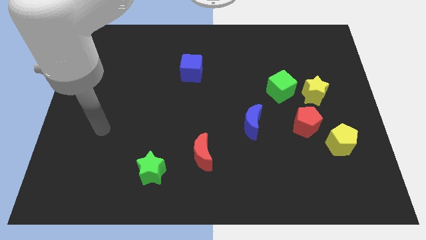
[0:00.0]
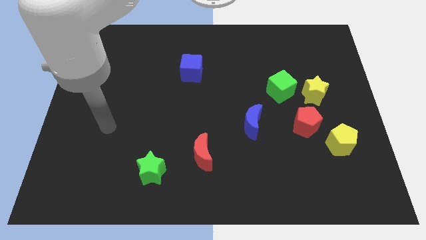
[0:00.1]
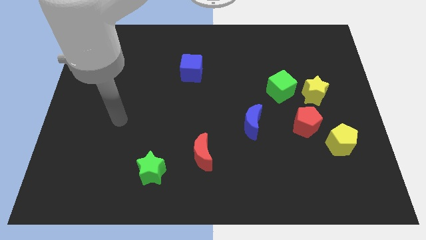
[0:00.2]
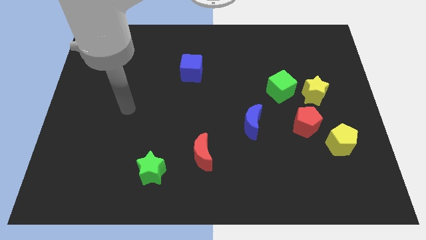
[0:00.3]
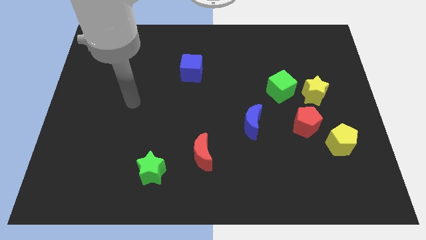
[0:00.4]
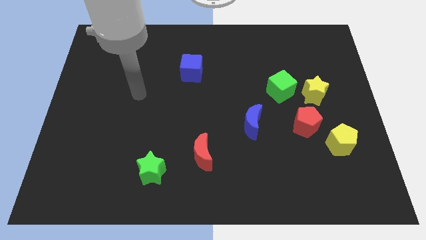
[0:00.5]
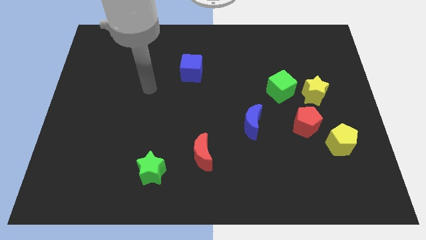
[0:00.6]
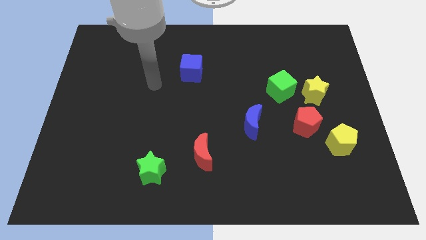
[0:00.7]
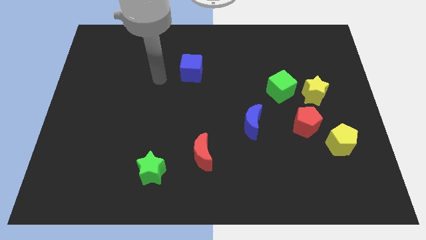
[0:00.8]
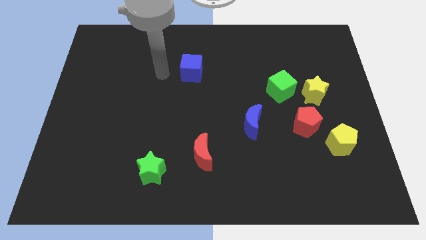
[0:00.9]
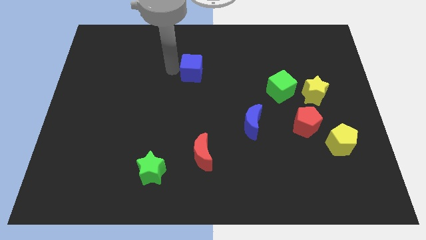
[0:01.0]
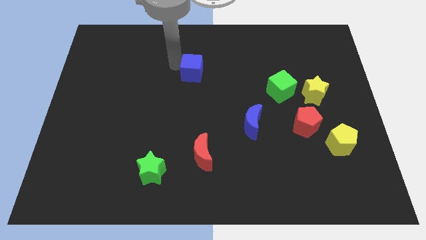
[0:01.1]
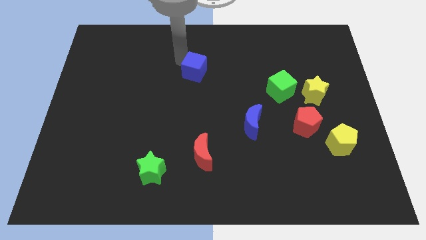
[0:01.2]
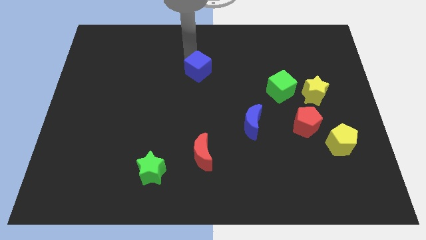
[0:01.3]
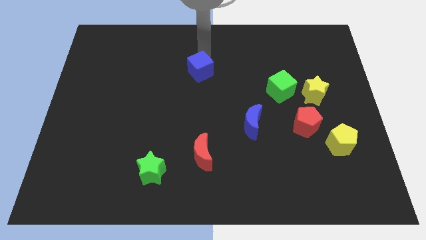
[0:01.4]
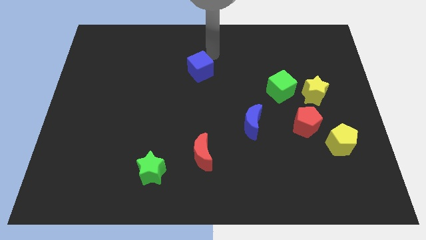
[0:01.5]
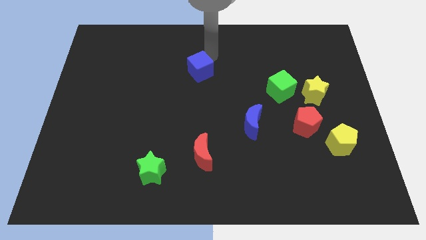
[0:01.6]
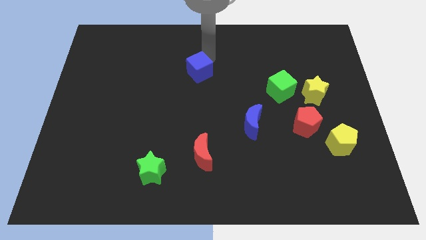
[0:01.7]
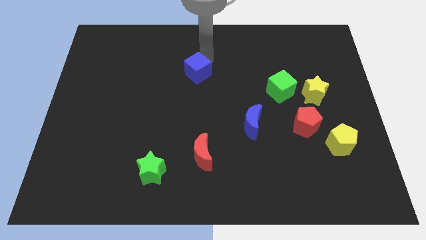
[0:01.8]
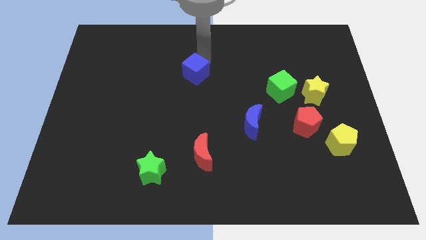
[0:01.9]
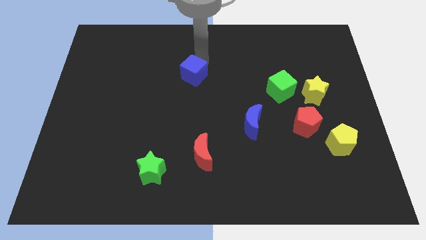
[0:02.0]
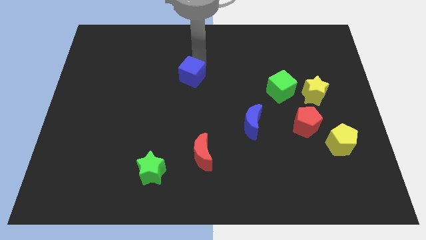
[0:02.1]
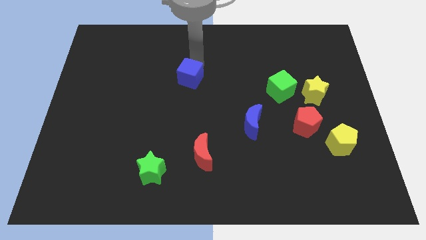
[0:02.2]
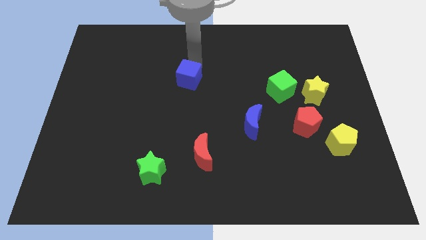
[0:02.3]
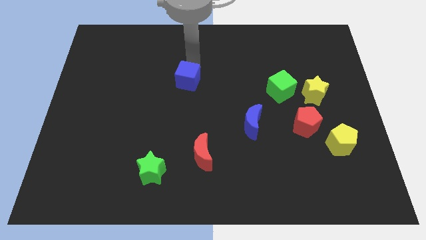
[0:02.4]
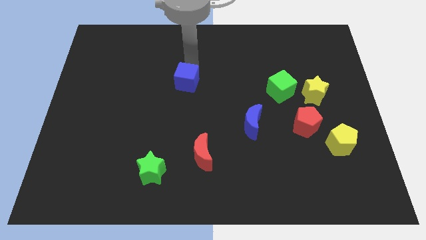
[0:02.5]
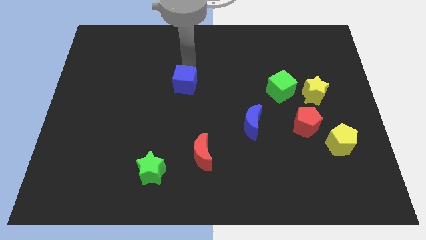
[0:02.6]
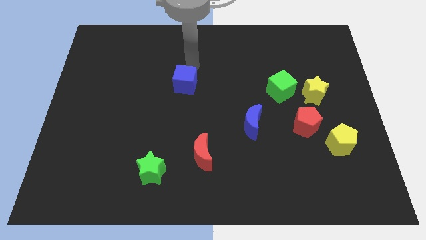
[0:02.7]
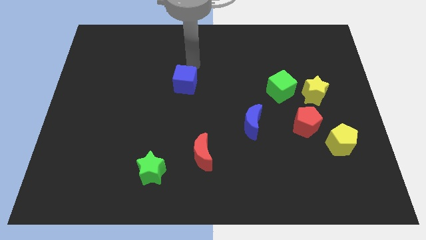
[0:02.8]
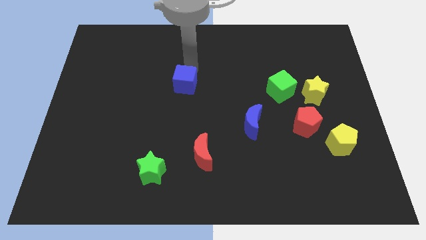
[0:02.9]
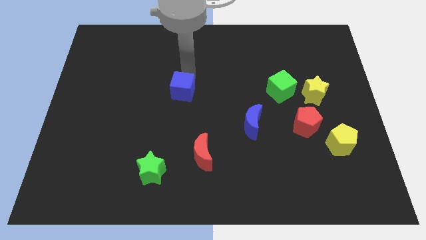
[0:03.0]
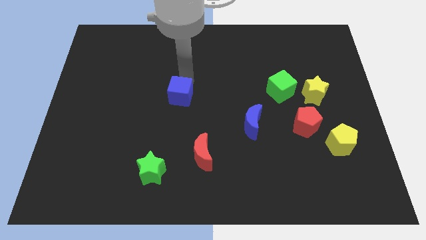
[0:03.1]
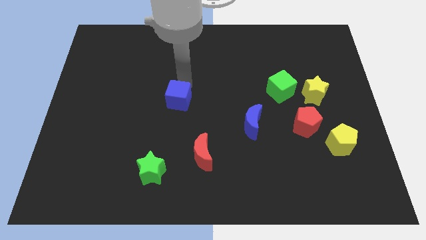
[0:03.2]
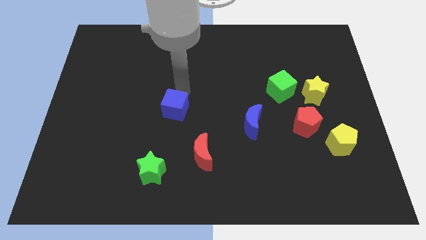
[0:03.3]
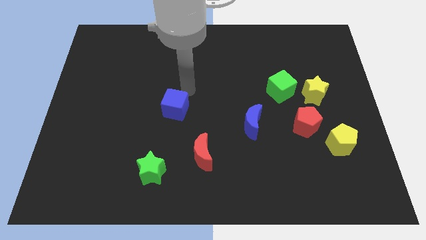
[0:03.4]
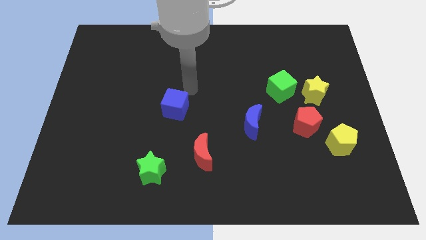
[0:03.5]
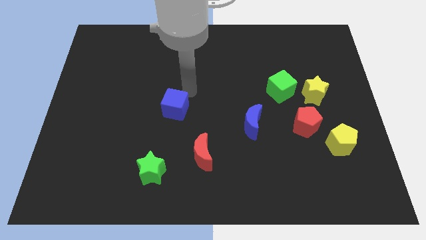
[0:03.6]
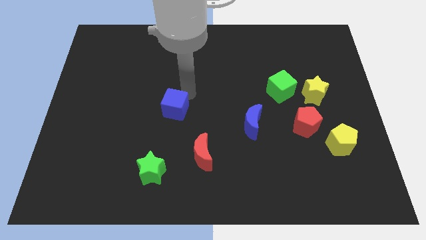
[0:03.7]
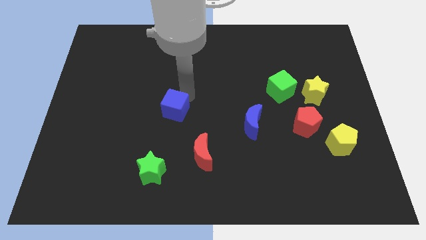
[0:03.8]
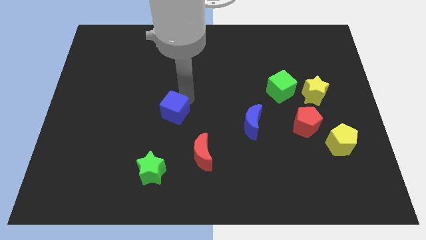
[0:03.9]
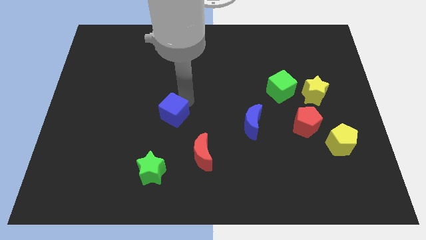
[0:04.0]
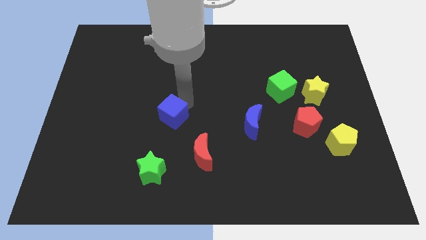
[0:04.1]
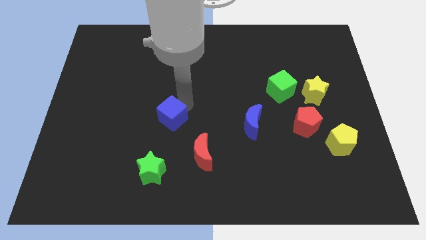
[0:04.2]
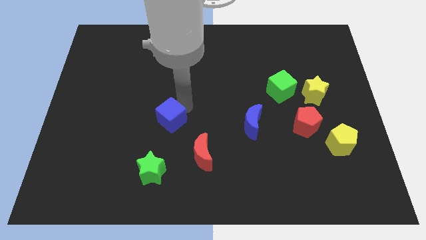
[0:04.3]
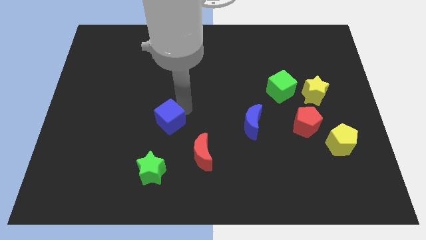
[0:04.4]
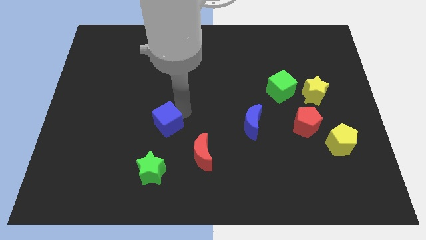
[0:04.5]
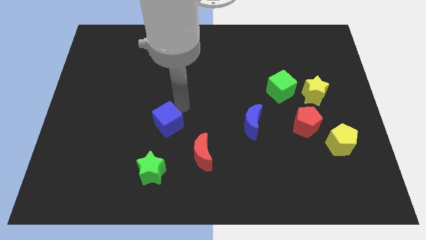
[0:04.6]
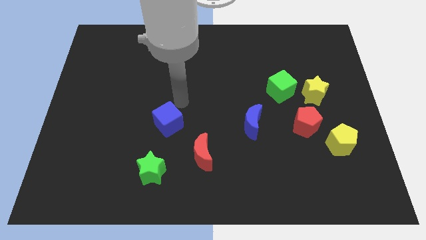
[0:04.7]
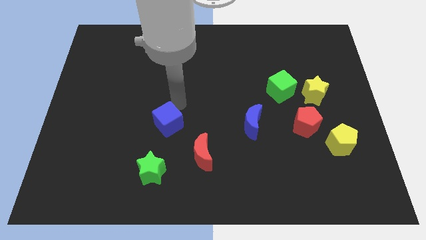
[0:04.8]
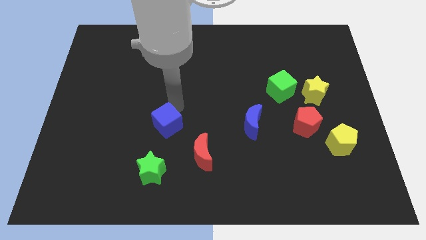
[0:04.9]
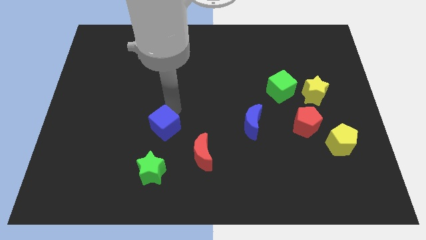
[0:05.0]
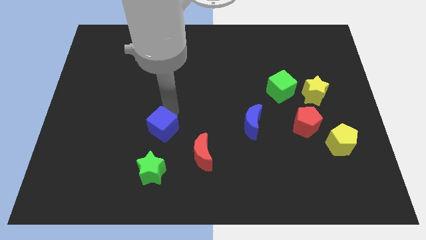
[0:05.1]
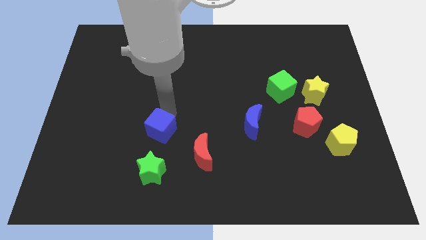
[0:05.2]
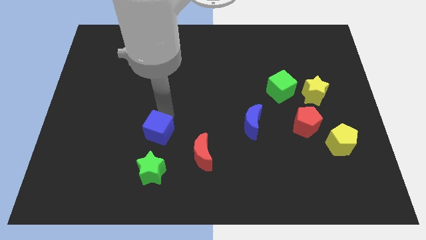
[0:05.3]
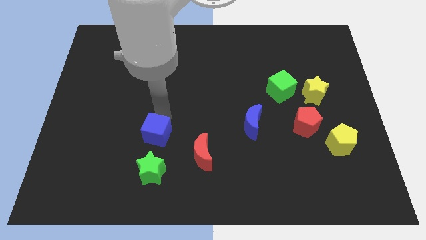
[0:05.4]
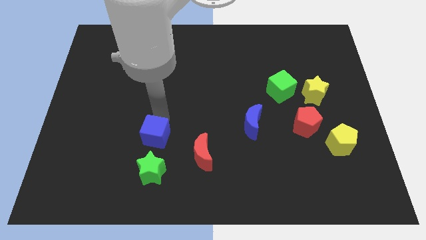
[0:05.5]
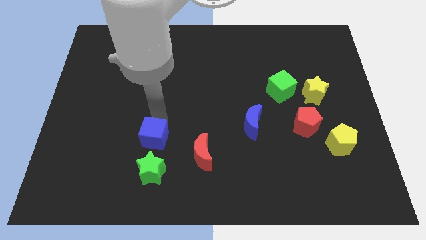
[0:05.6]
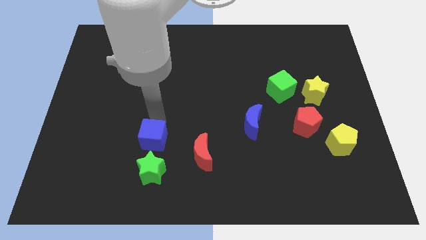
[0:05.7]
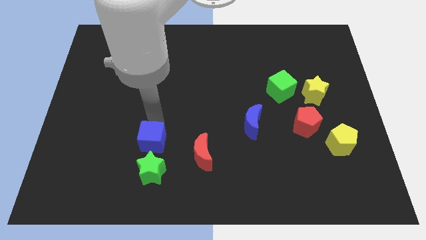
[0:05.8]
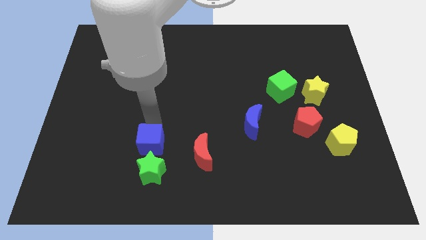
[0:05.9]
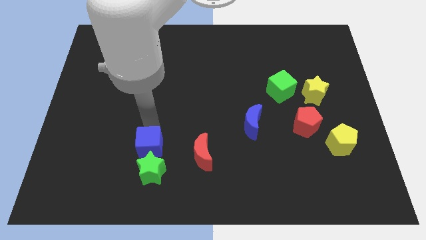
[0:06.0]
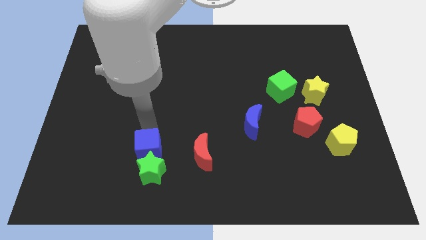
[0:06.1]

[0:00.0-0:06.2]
push the blue cube towards the green star
